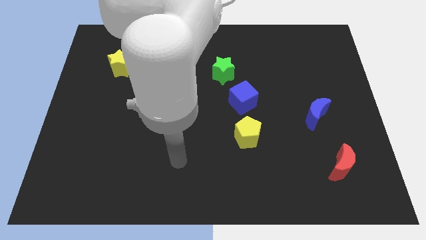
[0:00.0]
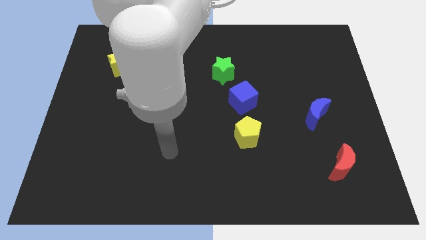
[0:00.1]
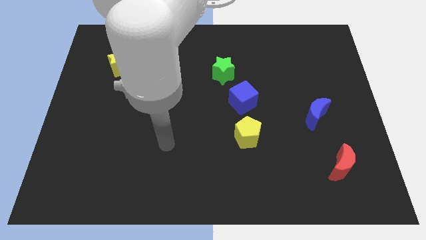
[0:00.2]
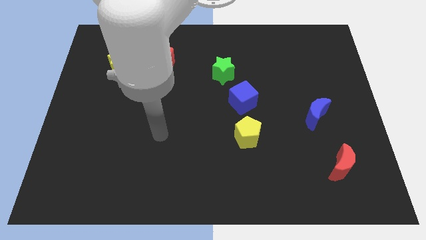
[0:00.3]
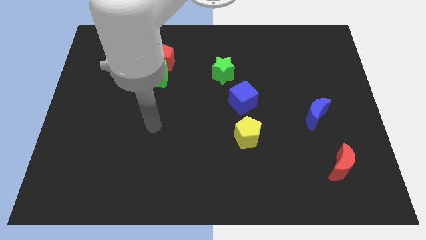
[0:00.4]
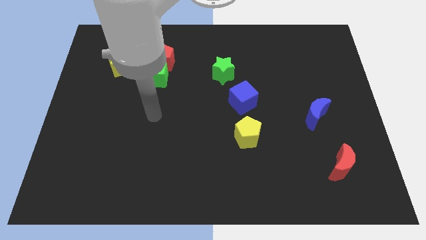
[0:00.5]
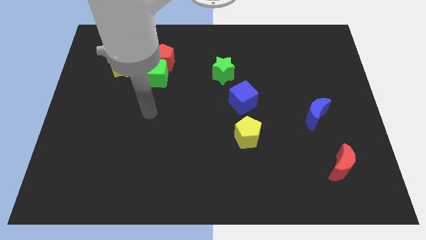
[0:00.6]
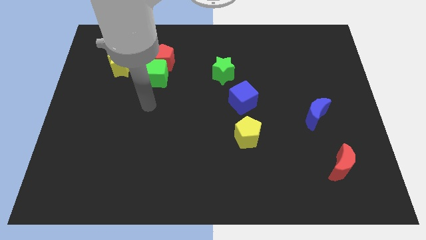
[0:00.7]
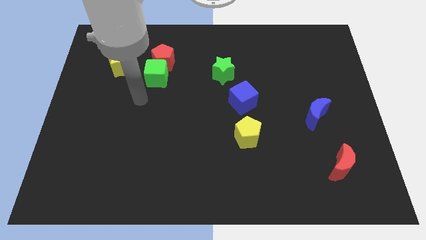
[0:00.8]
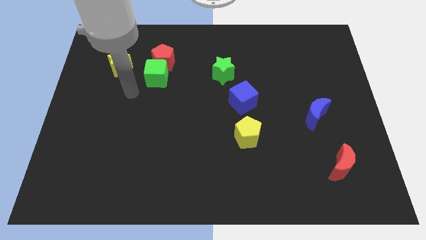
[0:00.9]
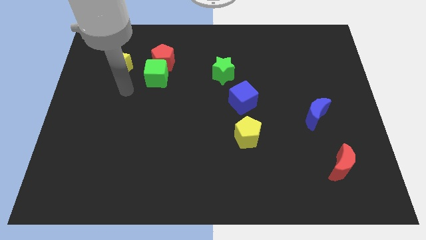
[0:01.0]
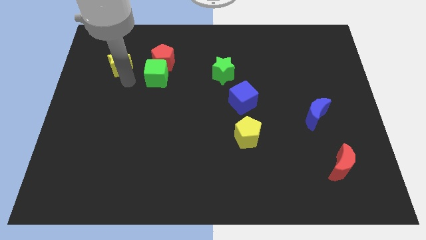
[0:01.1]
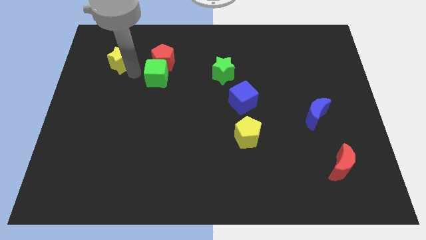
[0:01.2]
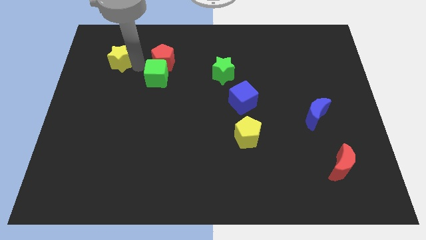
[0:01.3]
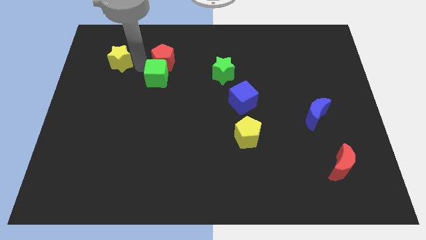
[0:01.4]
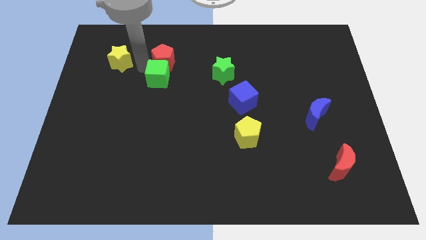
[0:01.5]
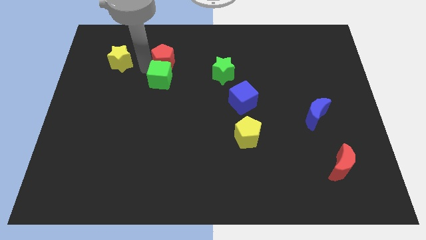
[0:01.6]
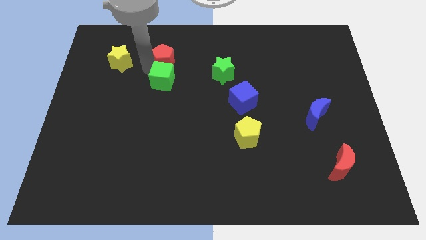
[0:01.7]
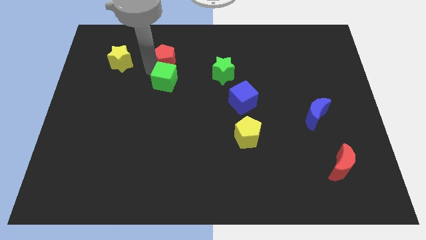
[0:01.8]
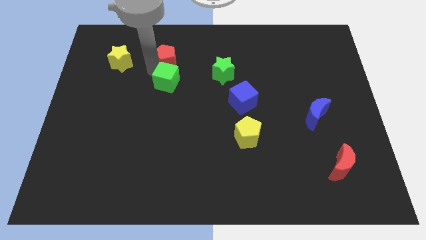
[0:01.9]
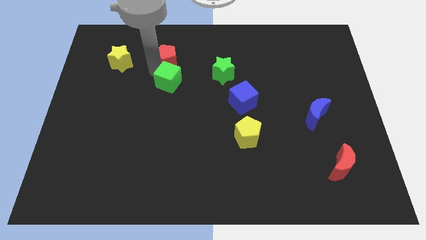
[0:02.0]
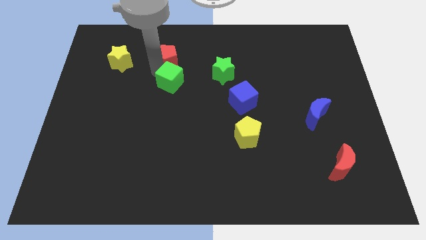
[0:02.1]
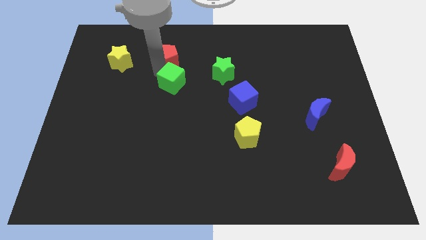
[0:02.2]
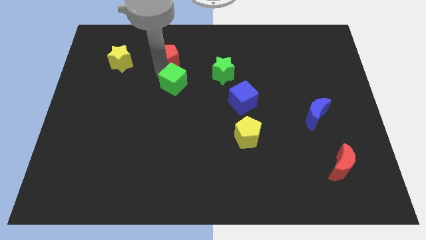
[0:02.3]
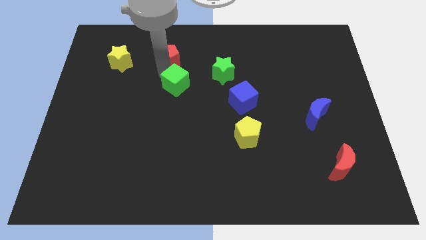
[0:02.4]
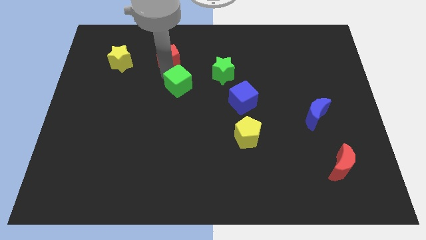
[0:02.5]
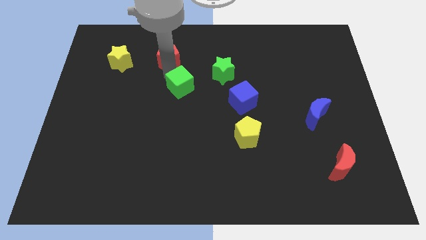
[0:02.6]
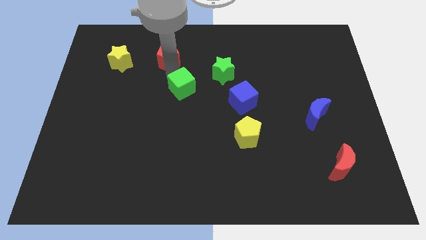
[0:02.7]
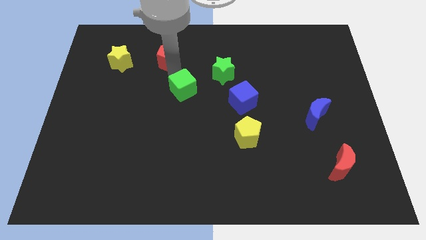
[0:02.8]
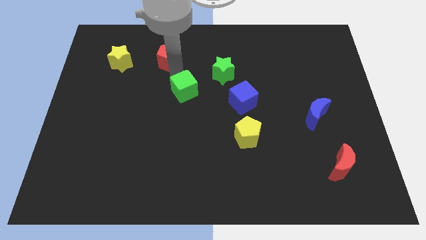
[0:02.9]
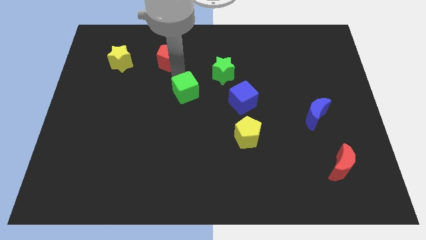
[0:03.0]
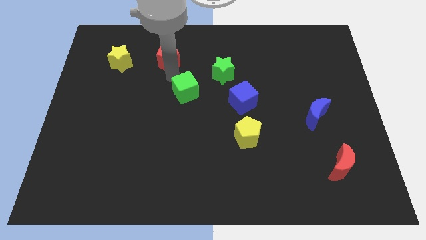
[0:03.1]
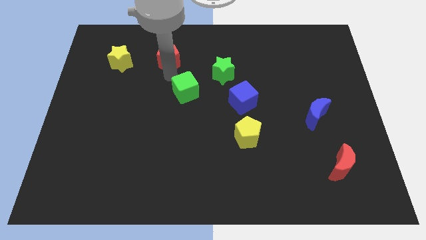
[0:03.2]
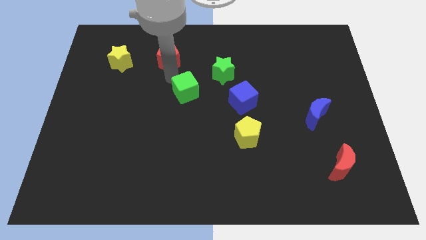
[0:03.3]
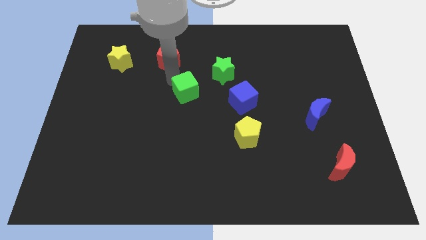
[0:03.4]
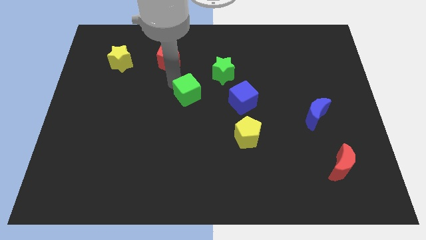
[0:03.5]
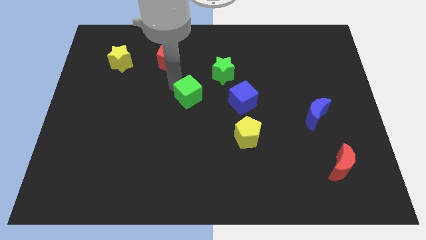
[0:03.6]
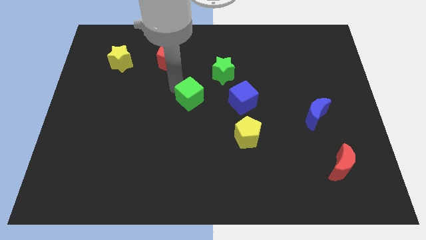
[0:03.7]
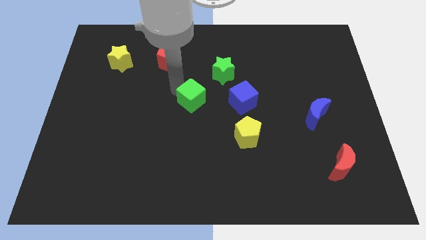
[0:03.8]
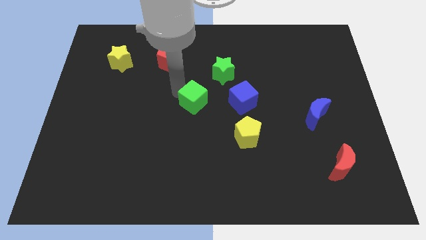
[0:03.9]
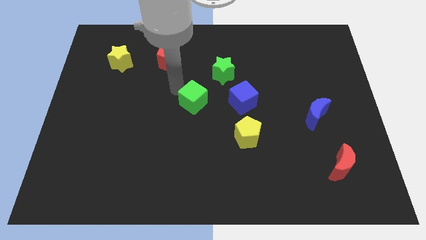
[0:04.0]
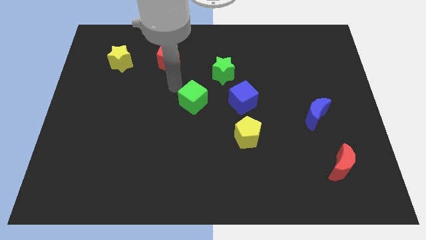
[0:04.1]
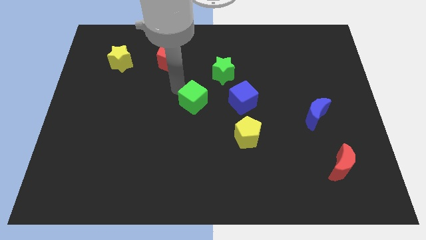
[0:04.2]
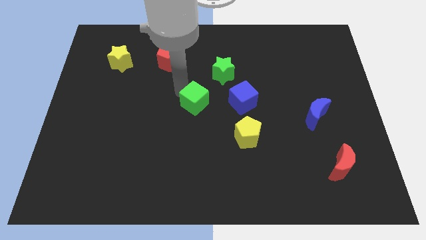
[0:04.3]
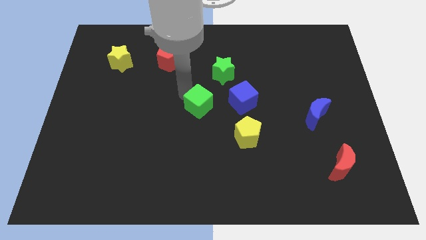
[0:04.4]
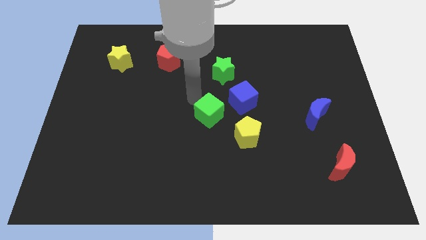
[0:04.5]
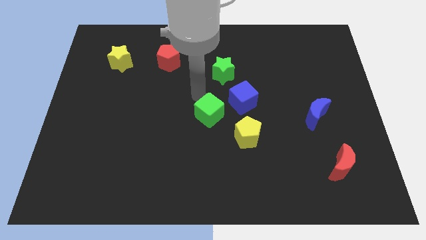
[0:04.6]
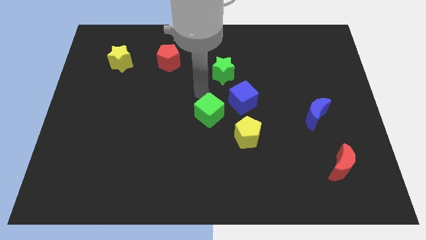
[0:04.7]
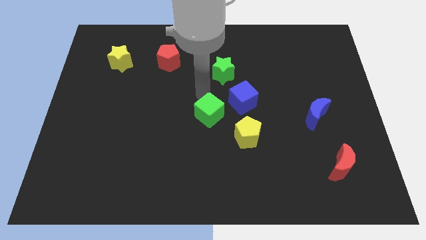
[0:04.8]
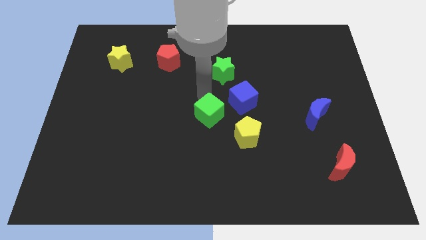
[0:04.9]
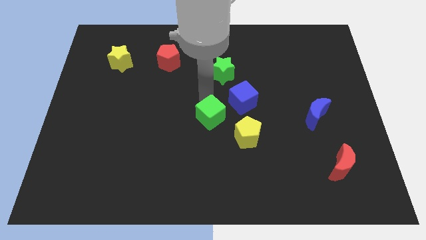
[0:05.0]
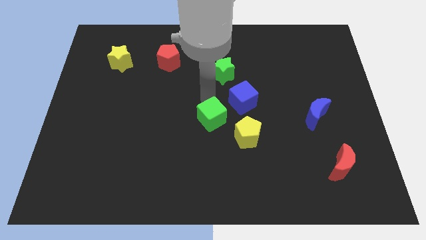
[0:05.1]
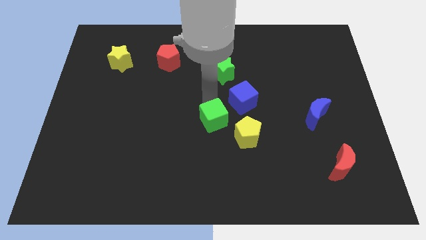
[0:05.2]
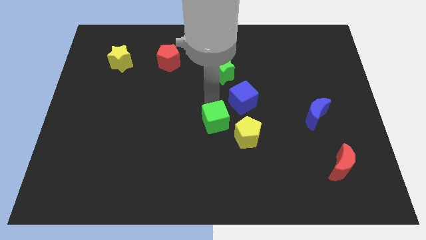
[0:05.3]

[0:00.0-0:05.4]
push the green cube downwards and then to the right

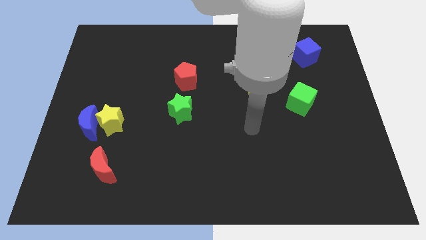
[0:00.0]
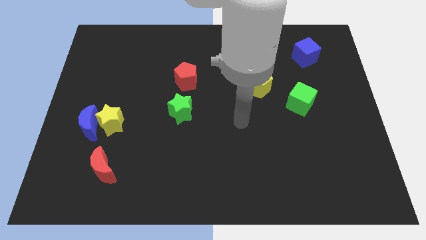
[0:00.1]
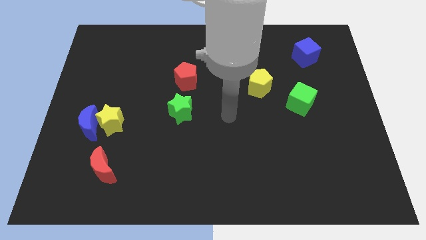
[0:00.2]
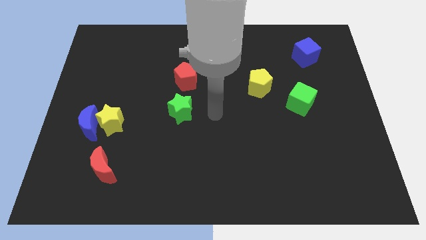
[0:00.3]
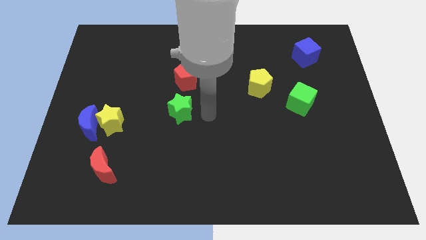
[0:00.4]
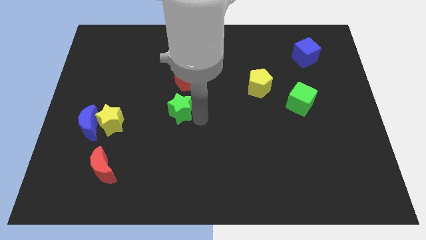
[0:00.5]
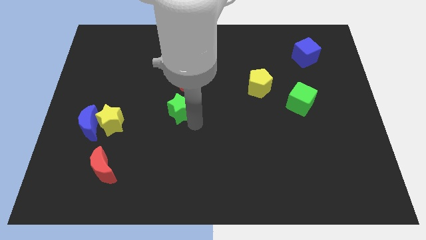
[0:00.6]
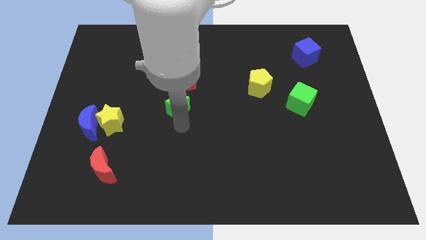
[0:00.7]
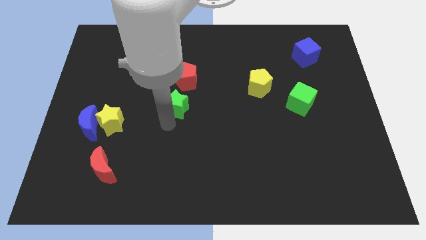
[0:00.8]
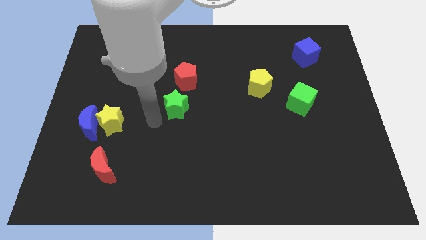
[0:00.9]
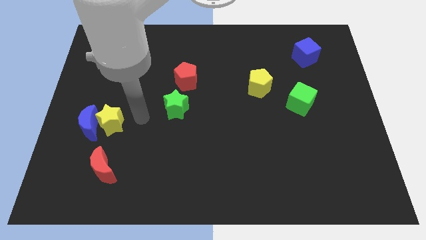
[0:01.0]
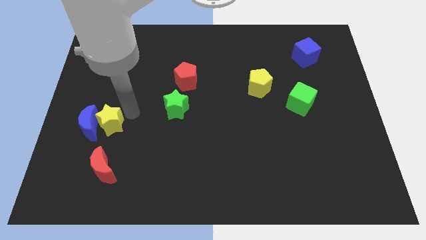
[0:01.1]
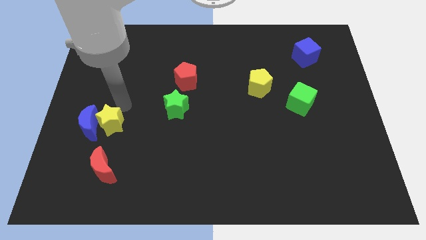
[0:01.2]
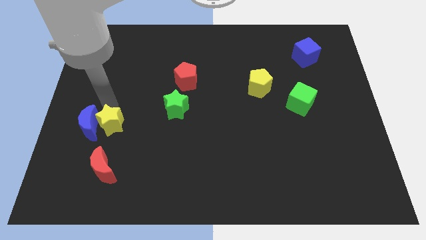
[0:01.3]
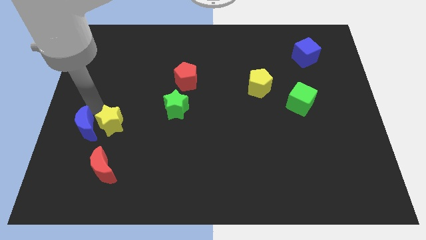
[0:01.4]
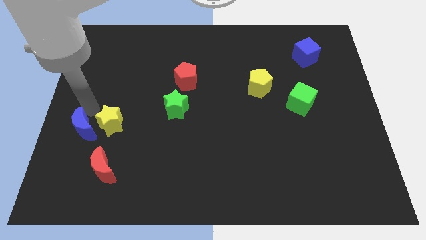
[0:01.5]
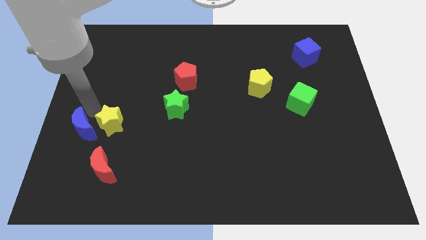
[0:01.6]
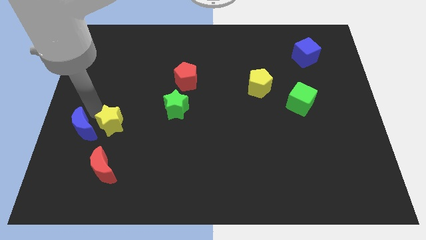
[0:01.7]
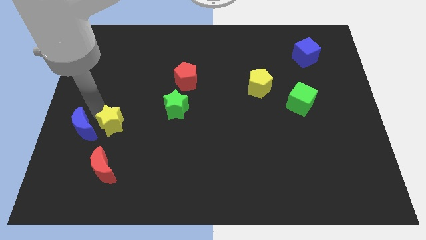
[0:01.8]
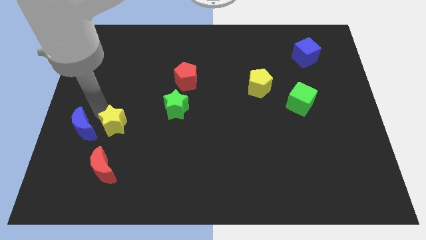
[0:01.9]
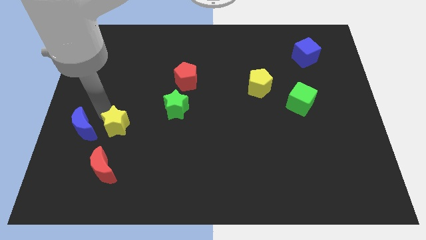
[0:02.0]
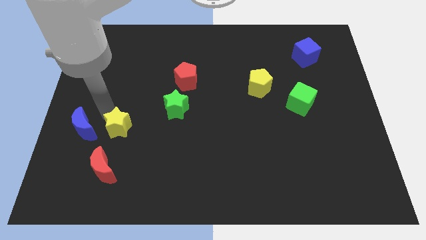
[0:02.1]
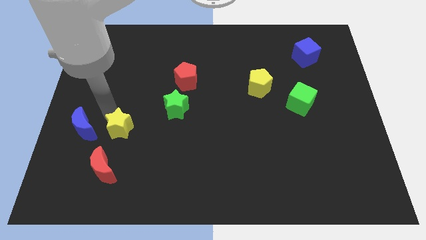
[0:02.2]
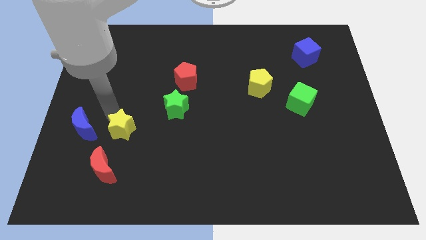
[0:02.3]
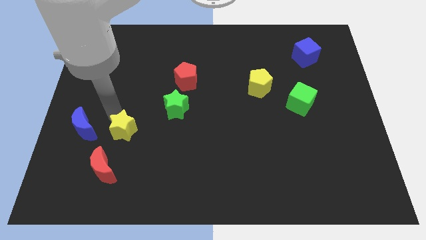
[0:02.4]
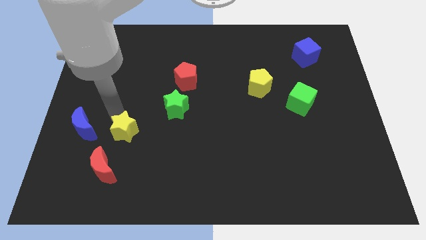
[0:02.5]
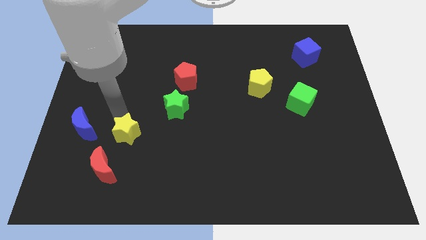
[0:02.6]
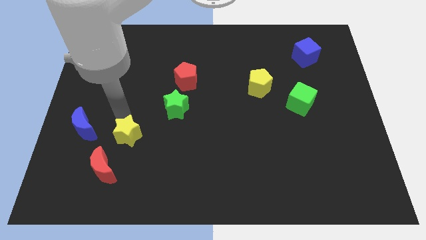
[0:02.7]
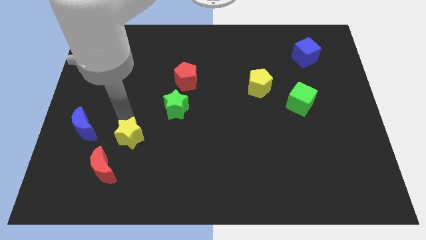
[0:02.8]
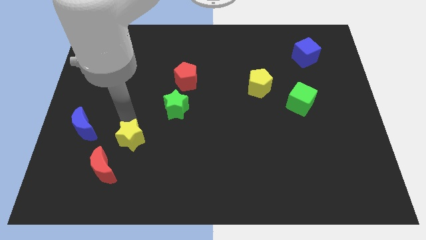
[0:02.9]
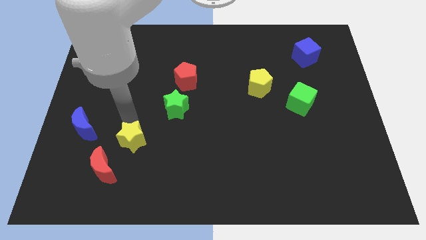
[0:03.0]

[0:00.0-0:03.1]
slightly slide the yellow star diagonally down and right
